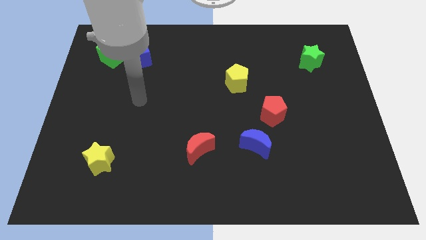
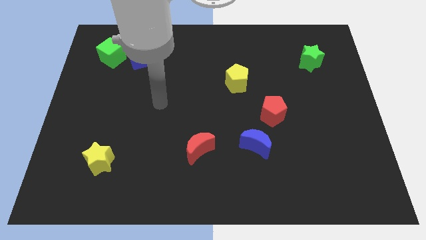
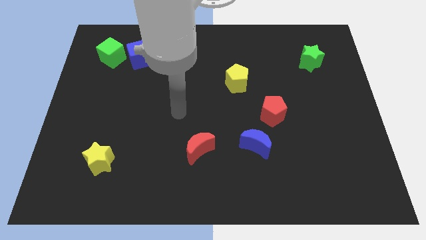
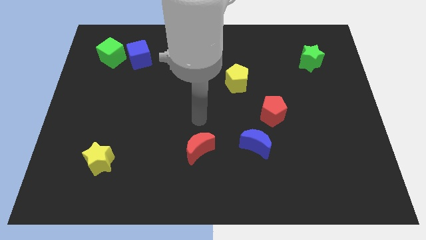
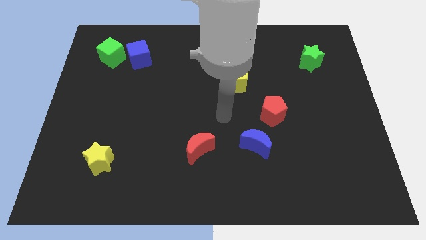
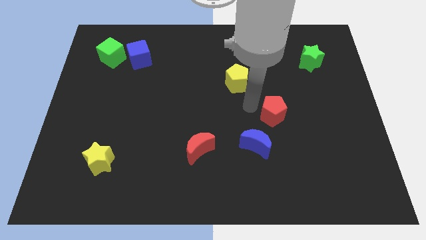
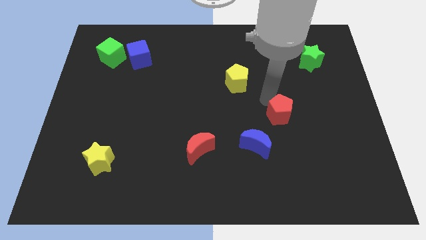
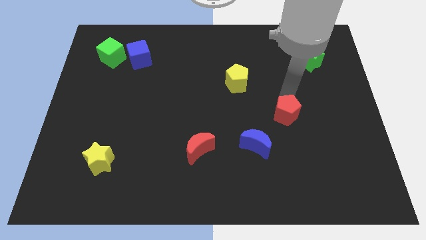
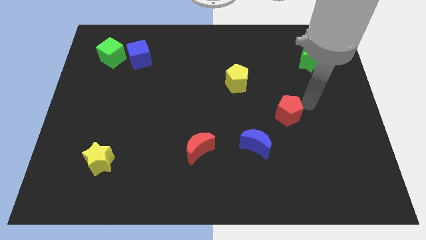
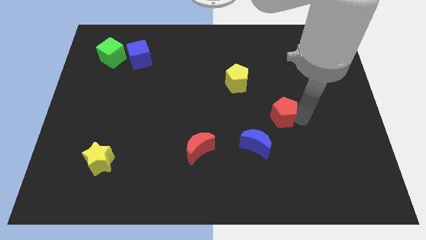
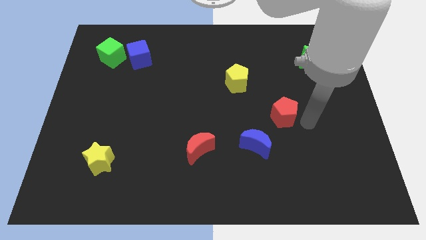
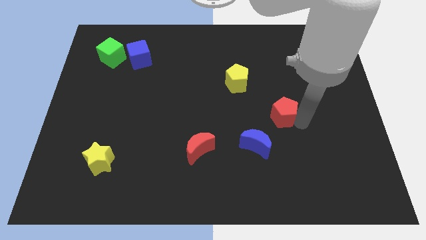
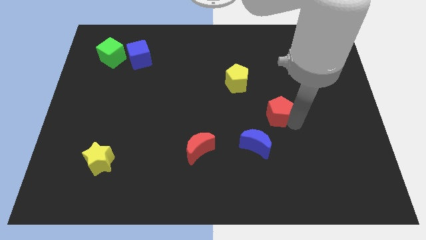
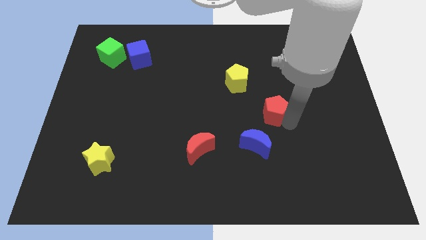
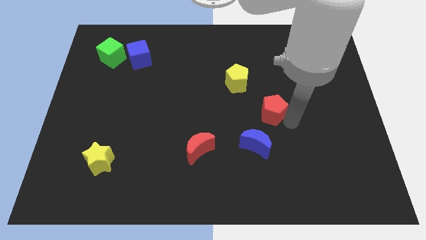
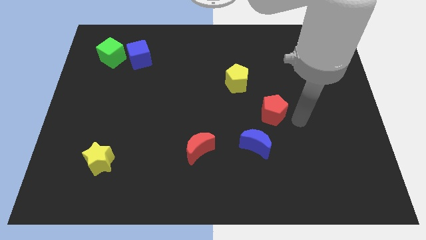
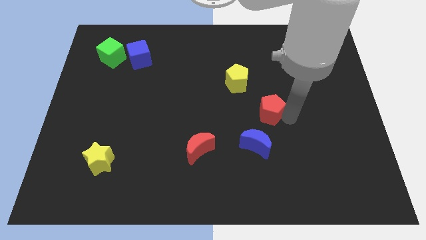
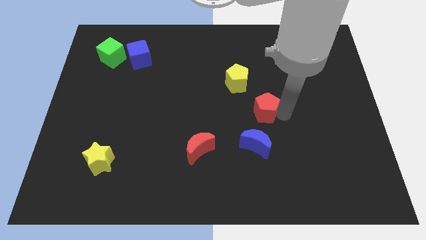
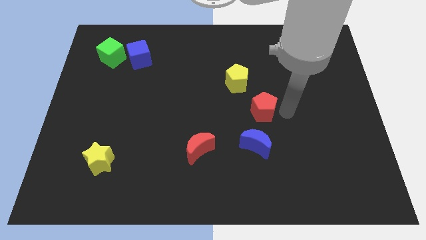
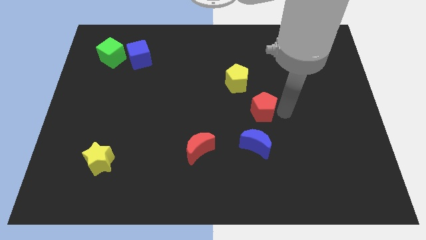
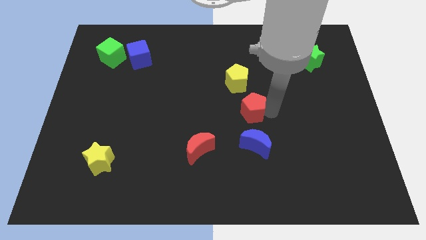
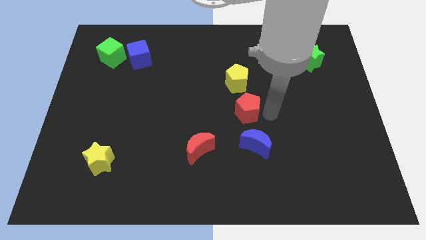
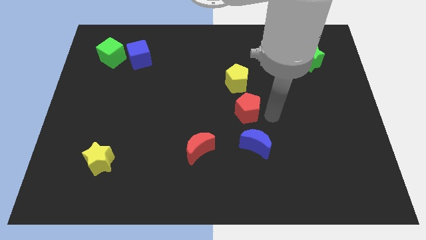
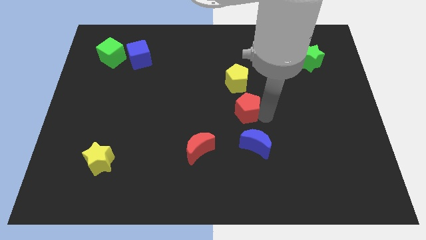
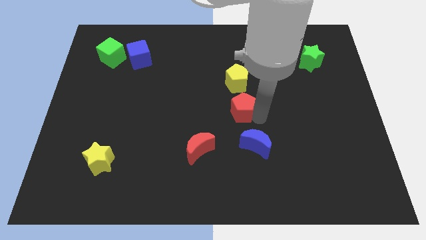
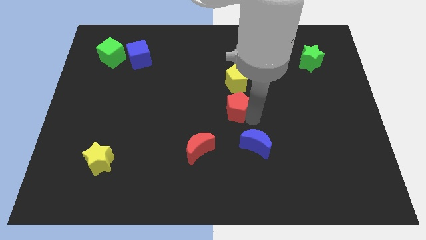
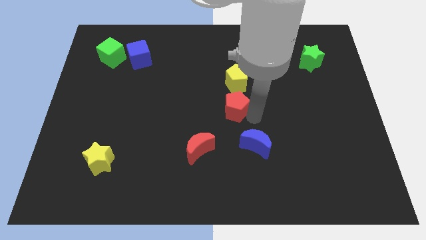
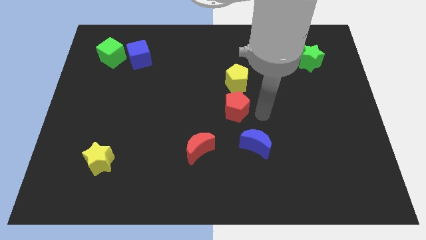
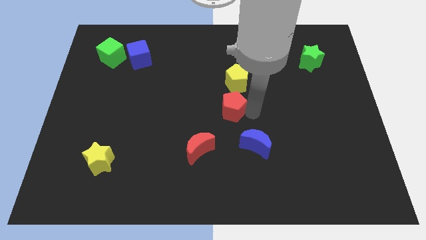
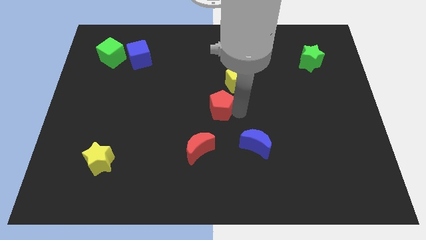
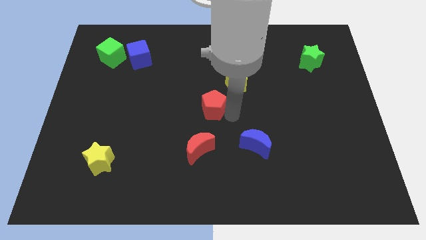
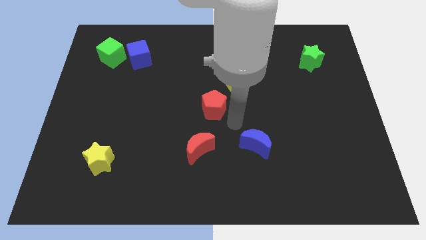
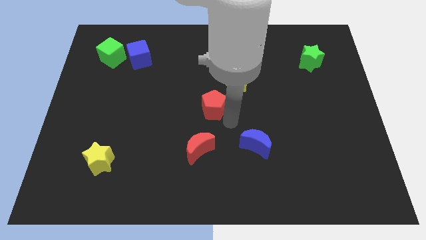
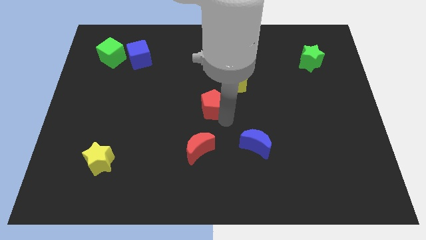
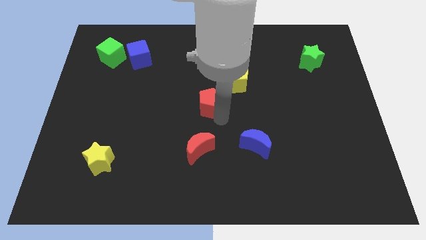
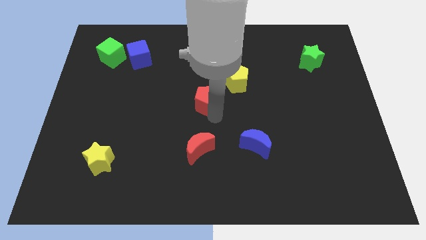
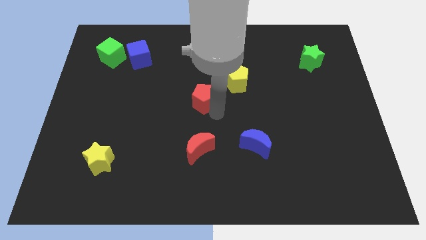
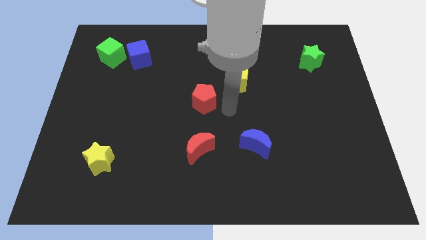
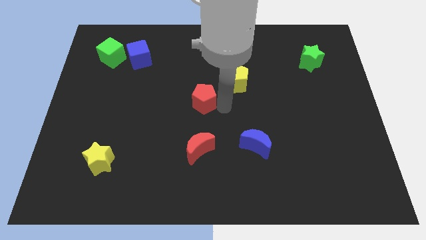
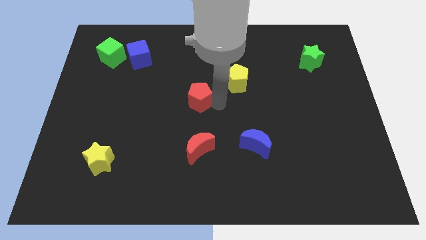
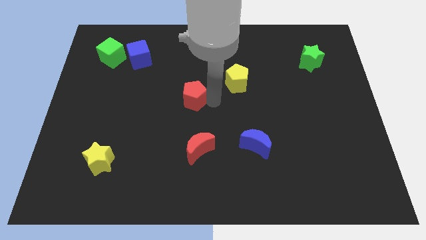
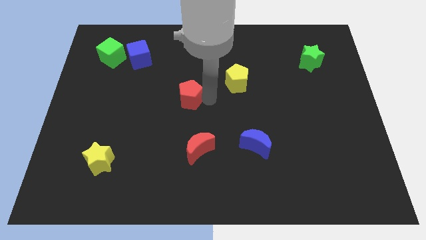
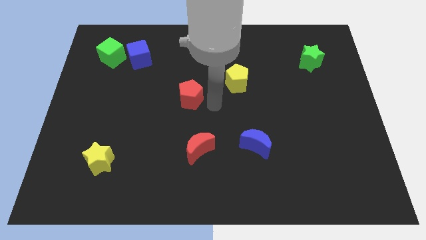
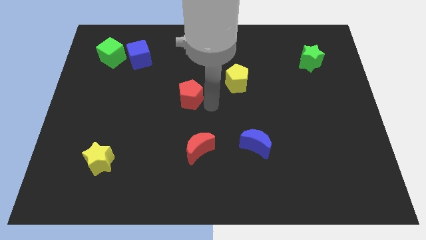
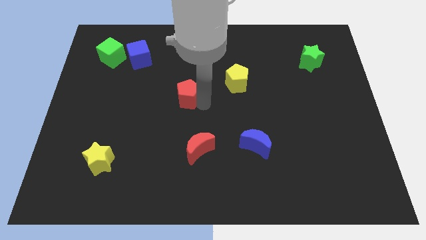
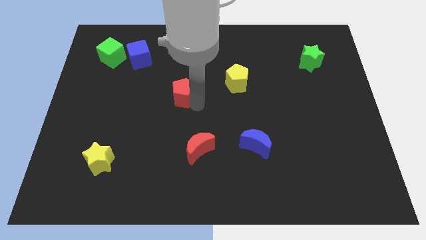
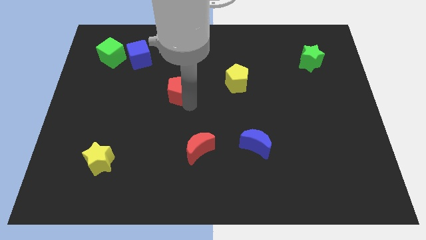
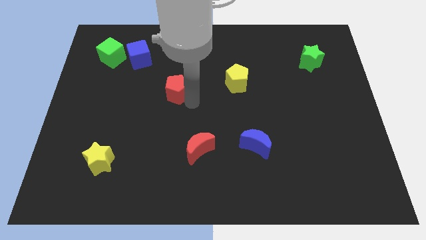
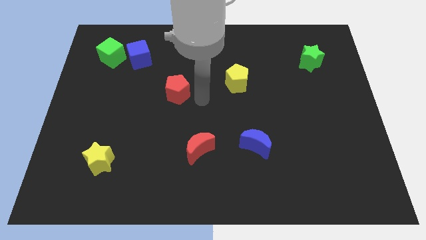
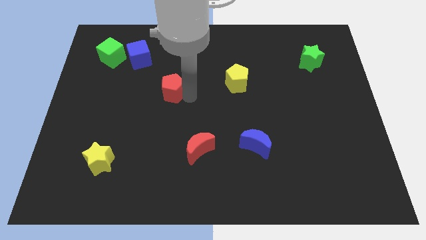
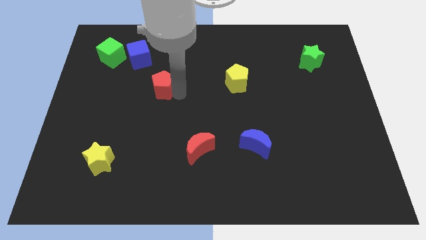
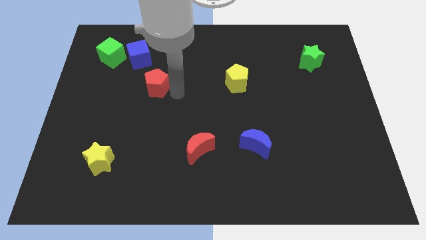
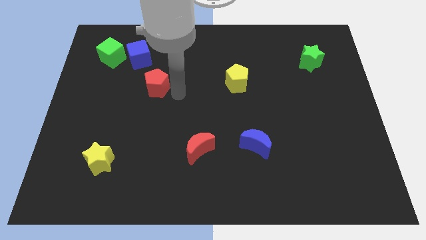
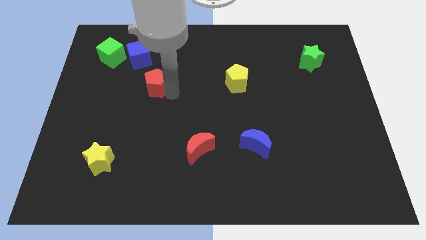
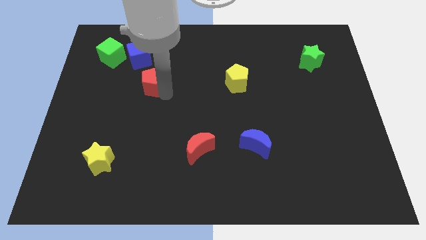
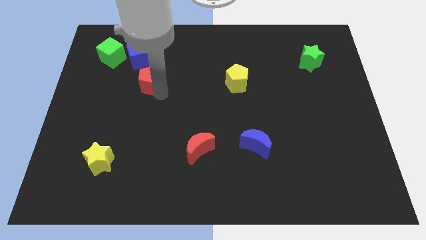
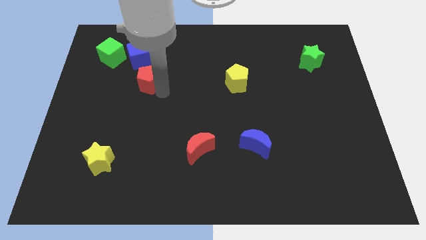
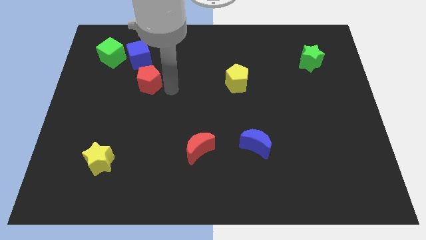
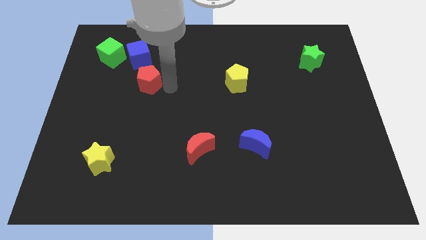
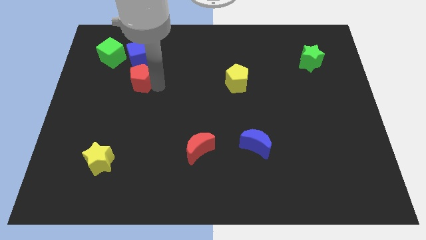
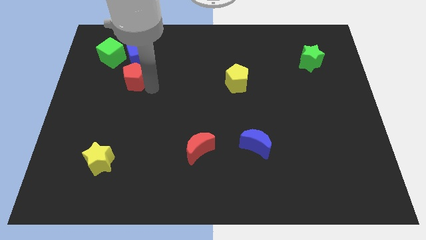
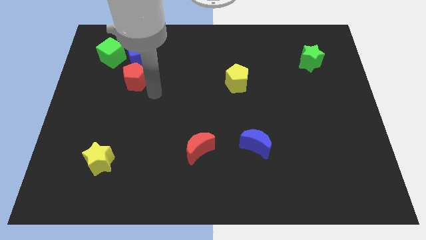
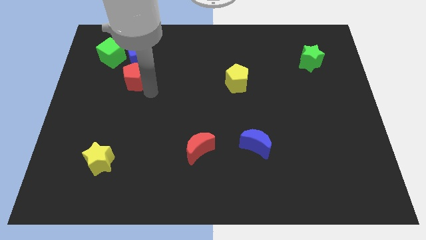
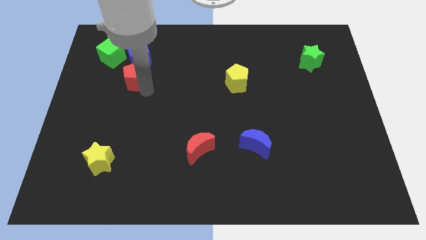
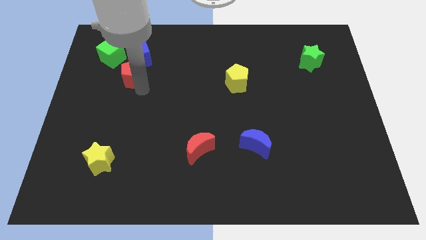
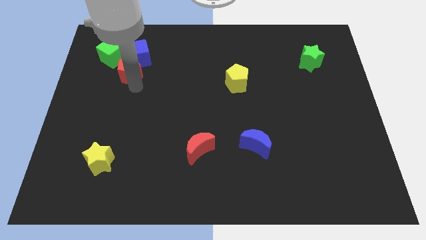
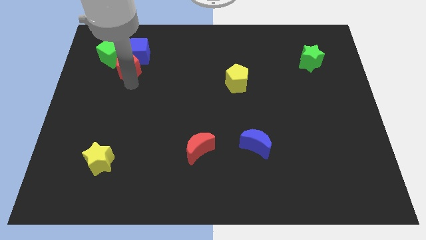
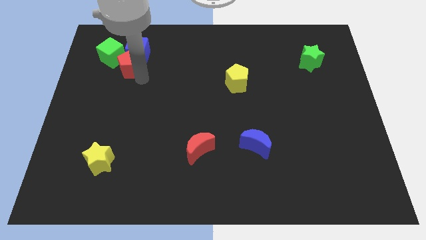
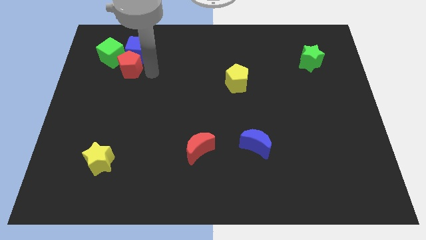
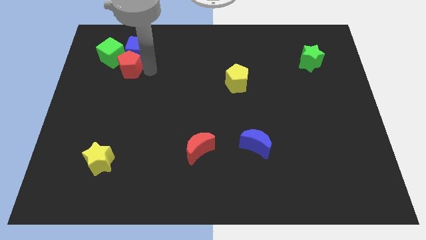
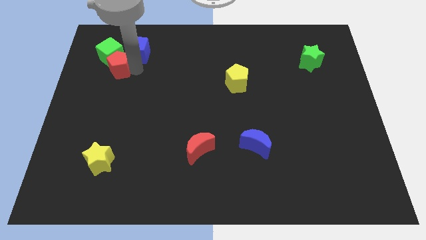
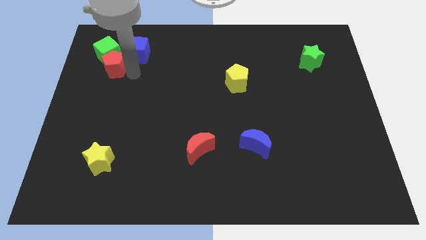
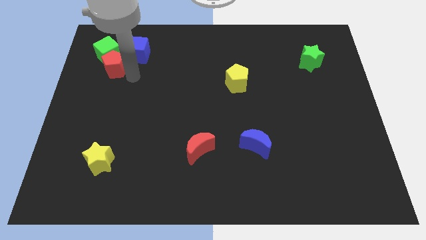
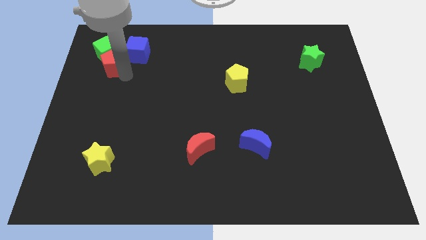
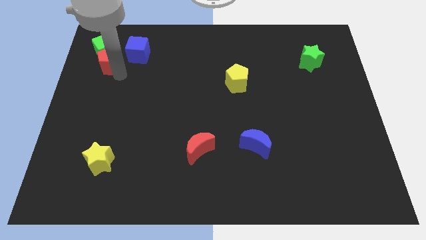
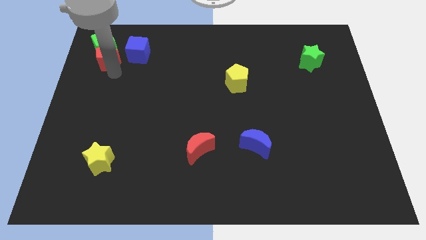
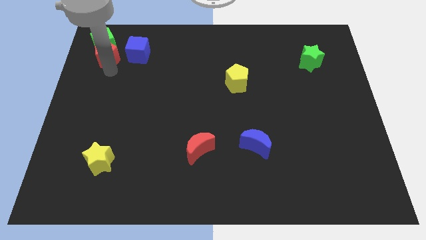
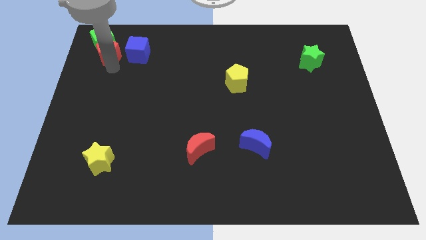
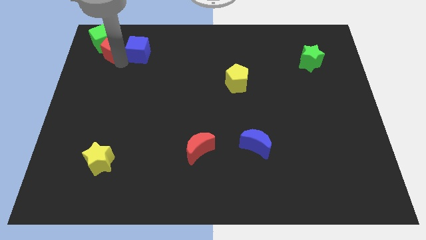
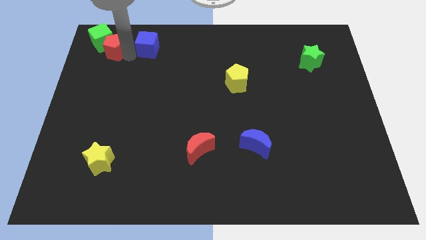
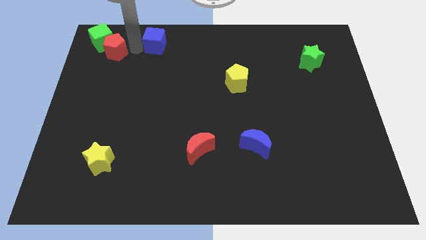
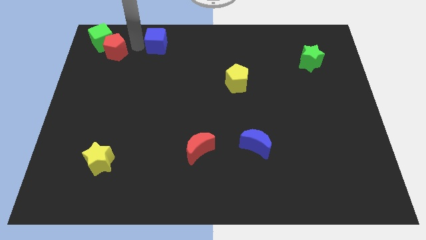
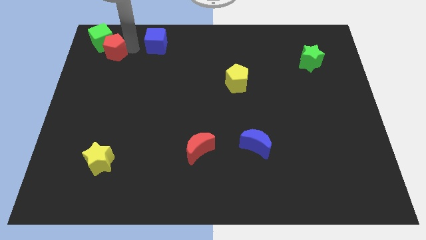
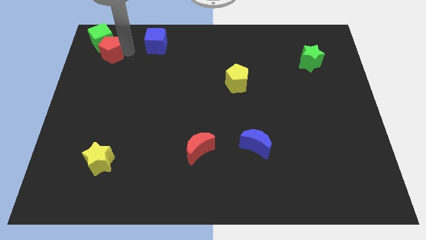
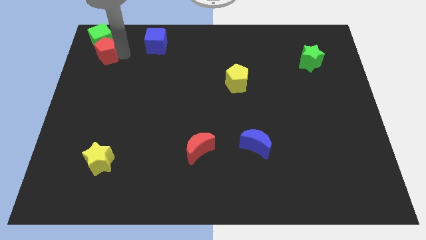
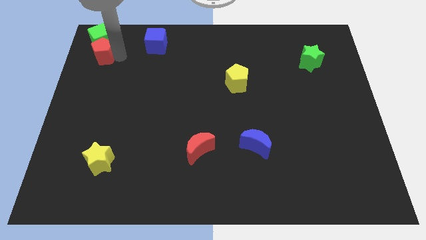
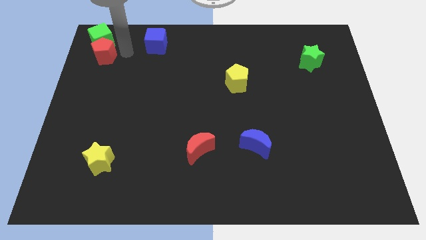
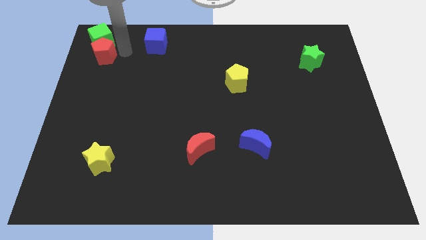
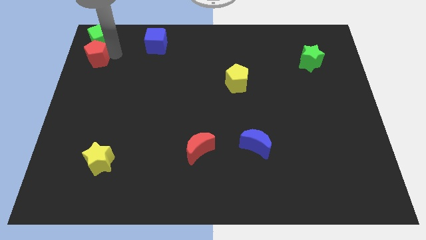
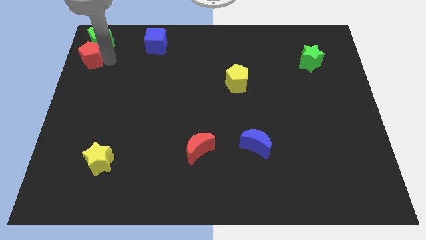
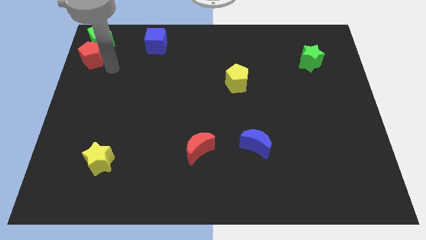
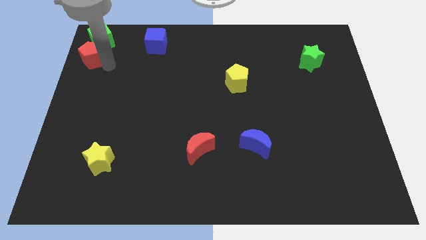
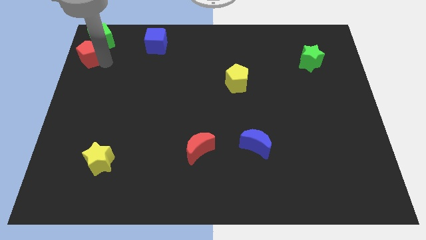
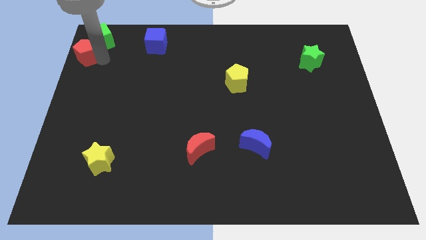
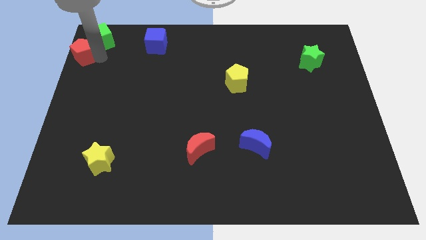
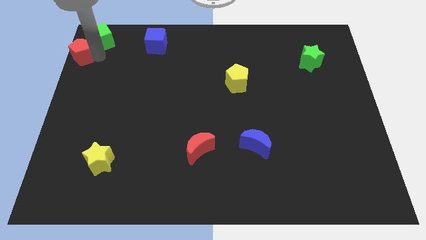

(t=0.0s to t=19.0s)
move the red pentagon to the top left corner
